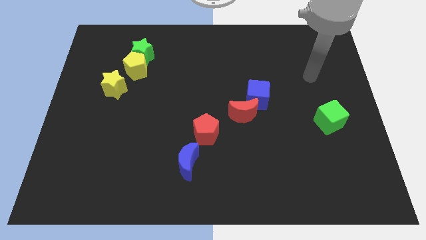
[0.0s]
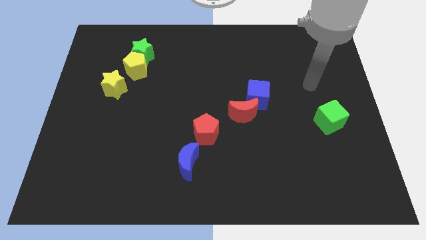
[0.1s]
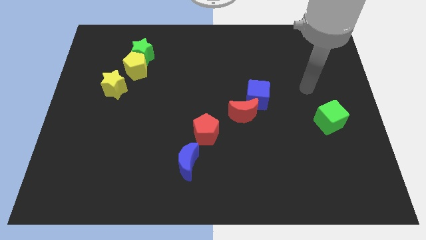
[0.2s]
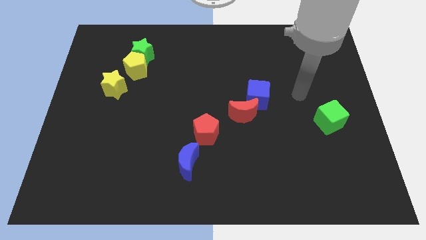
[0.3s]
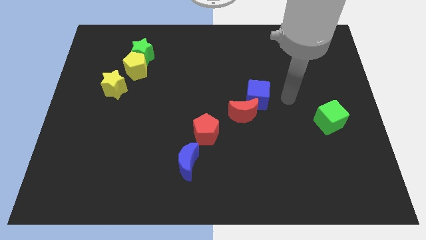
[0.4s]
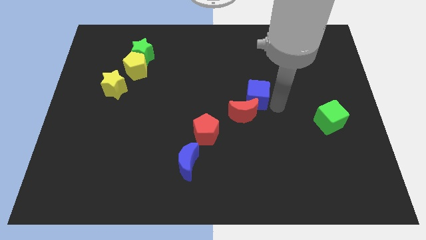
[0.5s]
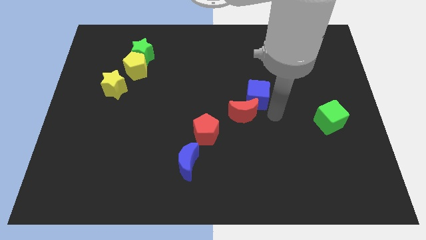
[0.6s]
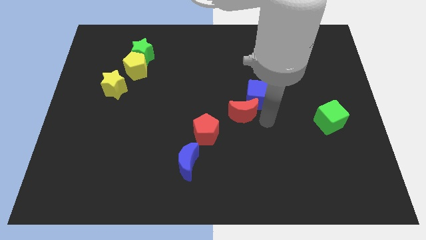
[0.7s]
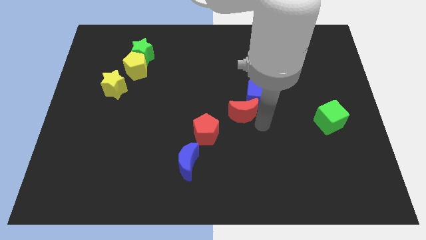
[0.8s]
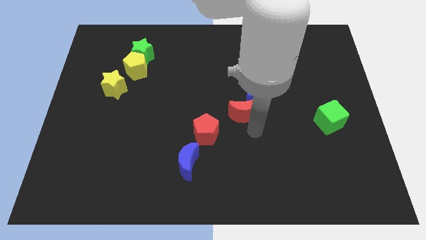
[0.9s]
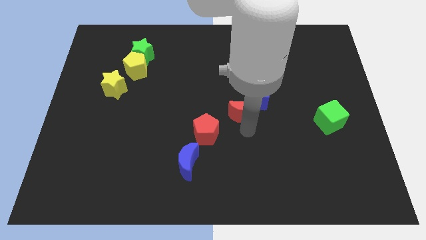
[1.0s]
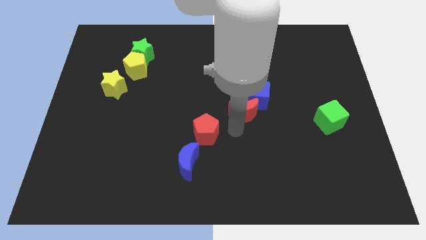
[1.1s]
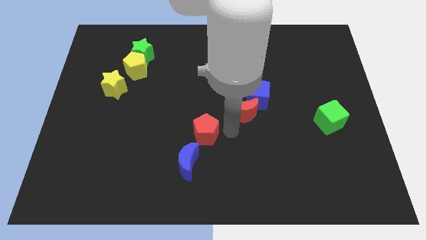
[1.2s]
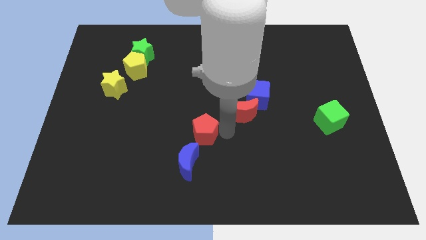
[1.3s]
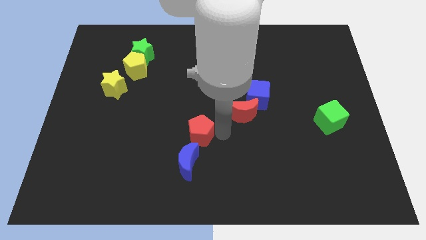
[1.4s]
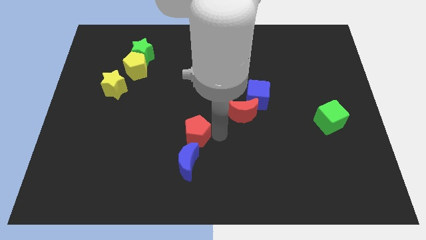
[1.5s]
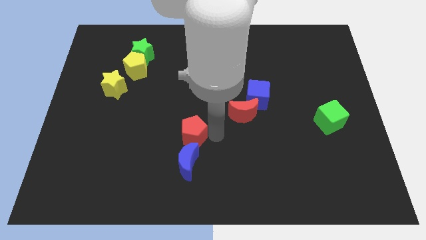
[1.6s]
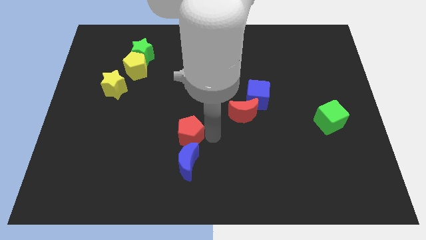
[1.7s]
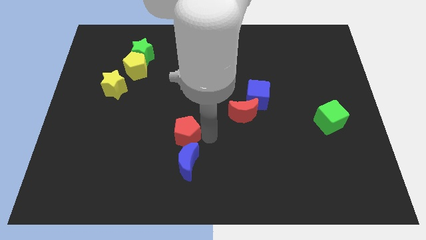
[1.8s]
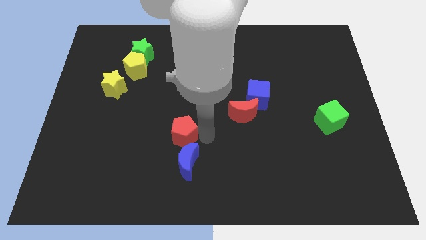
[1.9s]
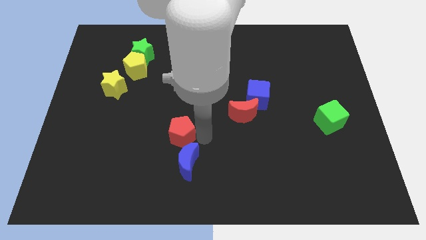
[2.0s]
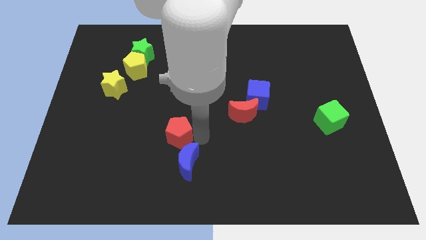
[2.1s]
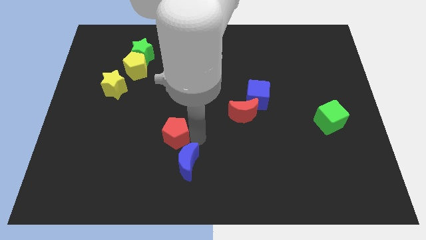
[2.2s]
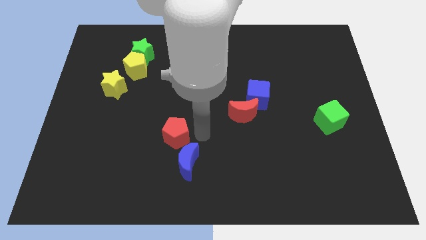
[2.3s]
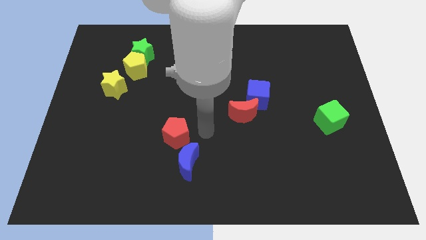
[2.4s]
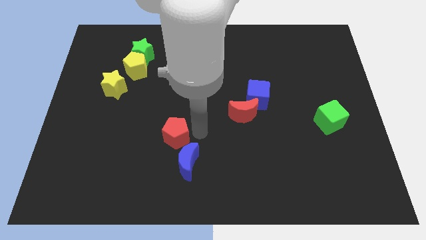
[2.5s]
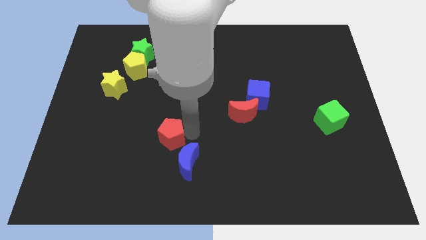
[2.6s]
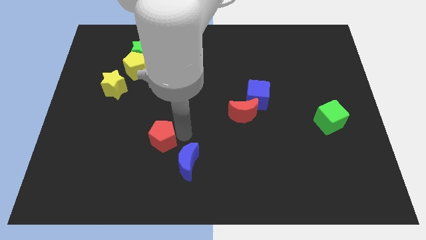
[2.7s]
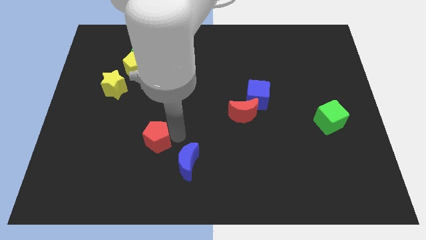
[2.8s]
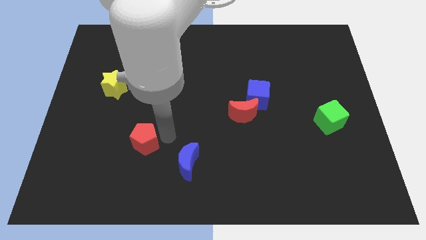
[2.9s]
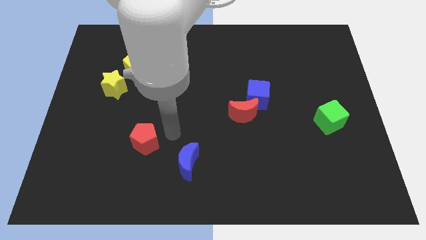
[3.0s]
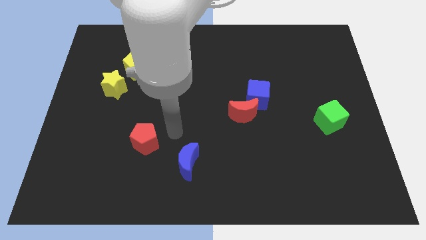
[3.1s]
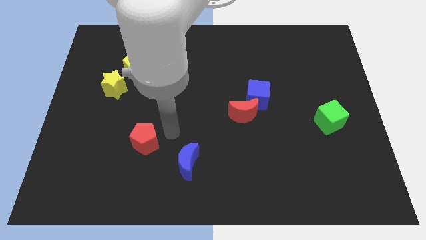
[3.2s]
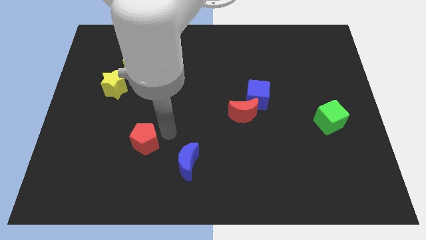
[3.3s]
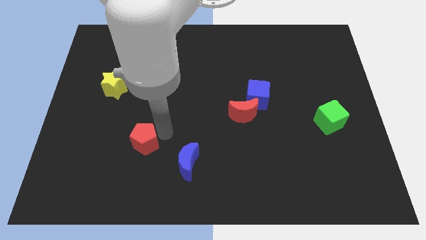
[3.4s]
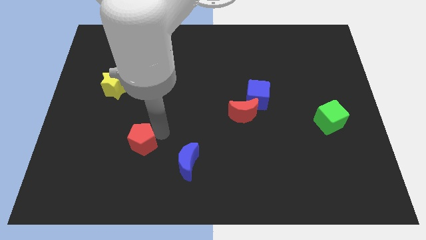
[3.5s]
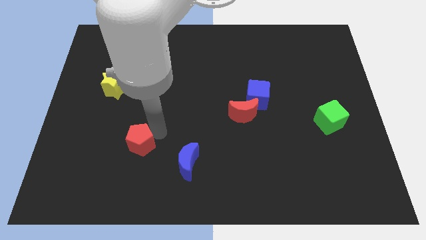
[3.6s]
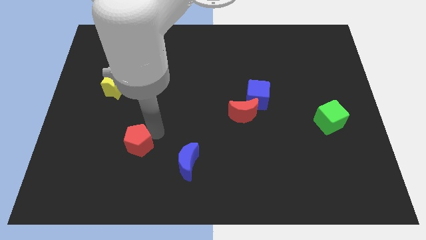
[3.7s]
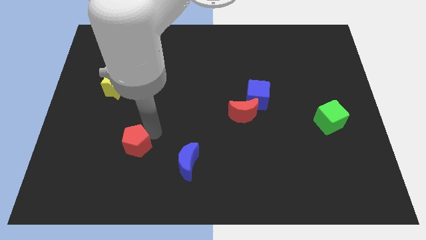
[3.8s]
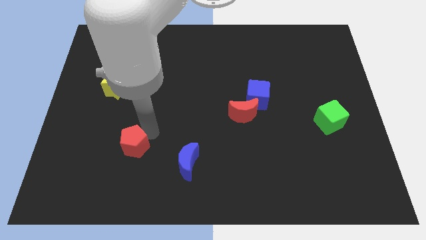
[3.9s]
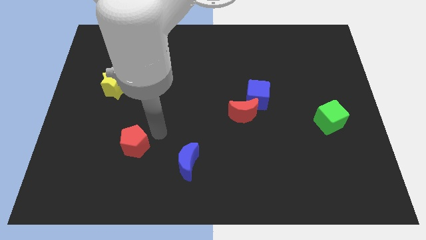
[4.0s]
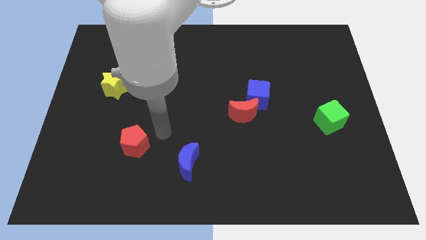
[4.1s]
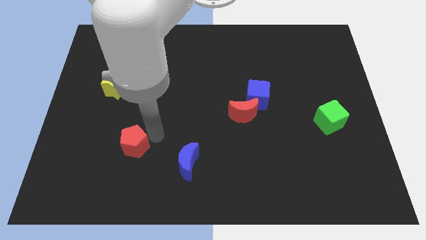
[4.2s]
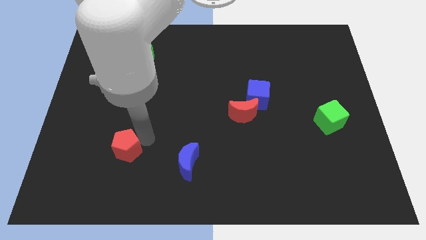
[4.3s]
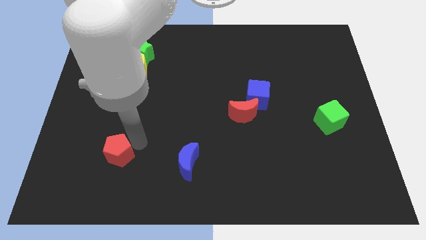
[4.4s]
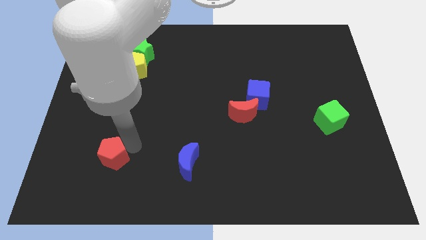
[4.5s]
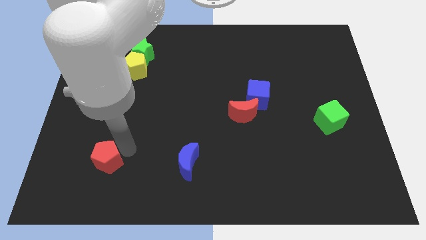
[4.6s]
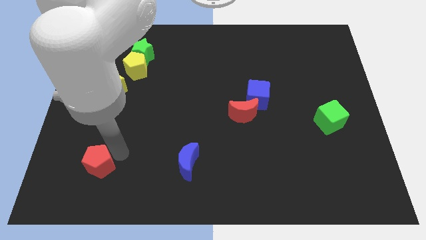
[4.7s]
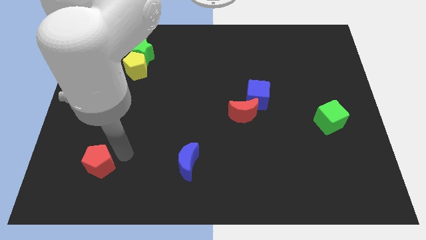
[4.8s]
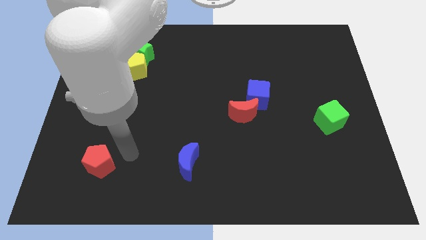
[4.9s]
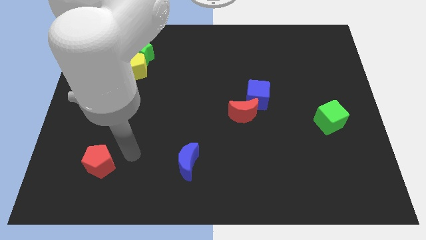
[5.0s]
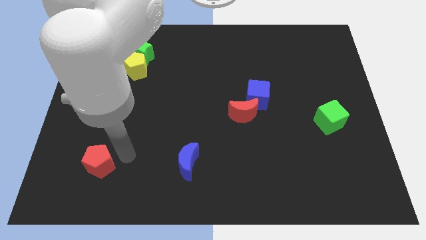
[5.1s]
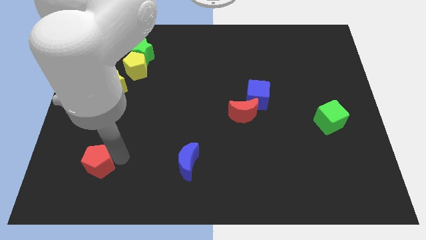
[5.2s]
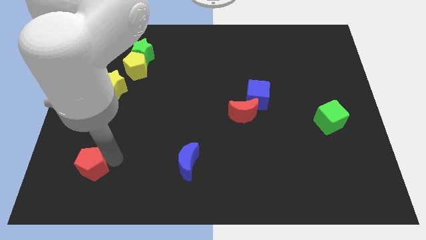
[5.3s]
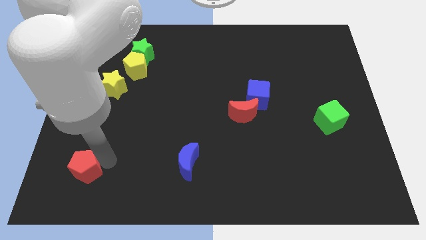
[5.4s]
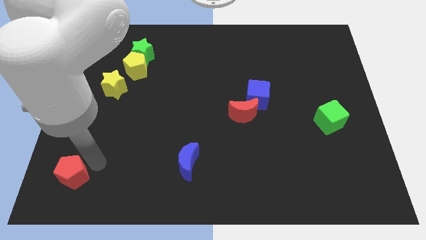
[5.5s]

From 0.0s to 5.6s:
push the red pentagon to the bottom left corner

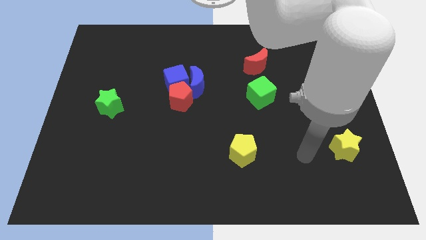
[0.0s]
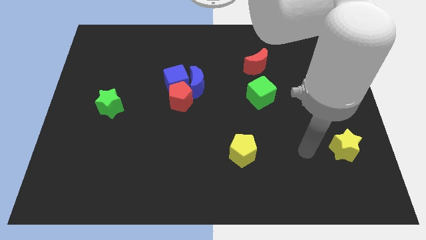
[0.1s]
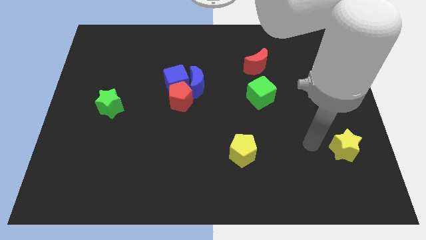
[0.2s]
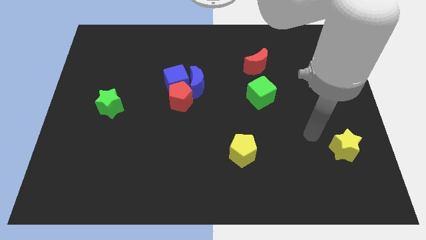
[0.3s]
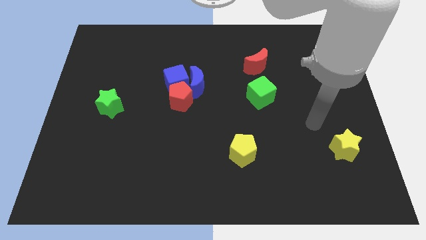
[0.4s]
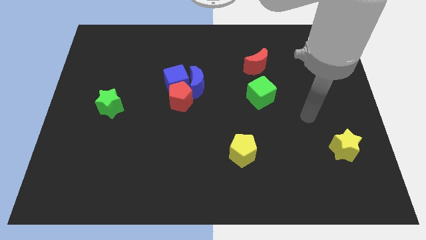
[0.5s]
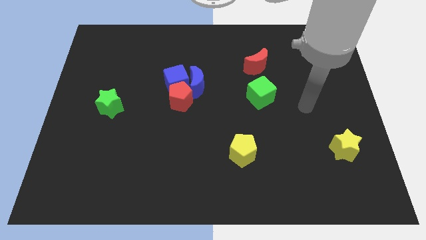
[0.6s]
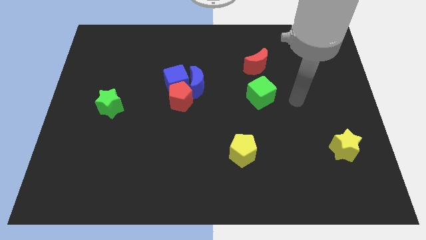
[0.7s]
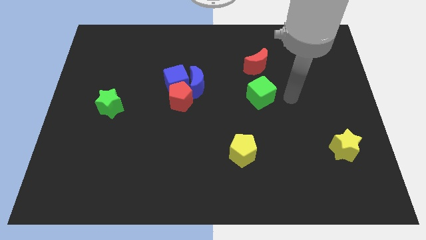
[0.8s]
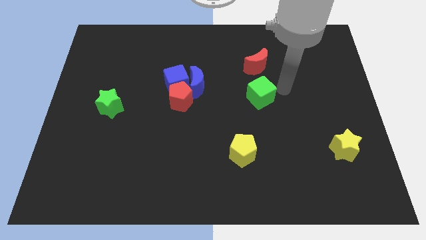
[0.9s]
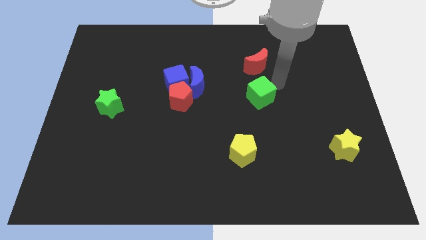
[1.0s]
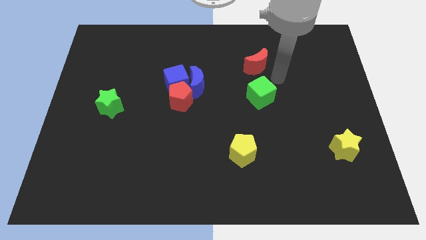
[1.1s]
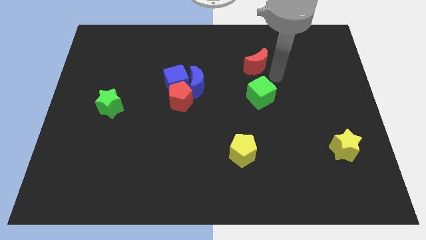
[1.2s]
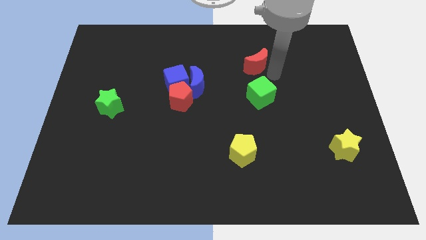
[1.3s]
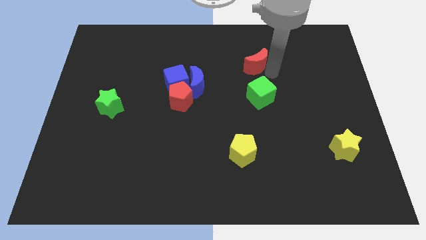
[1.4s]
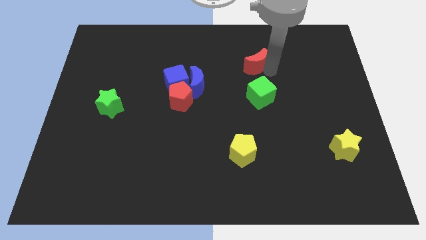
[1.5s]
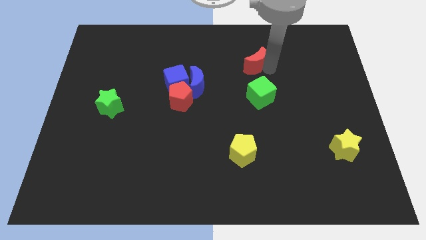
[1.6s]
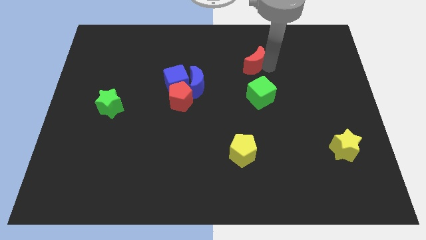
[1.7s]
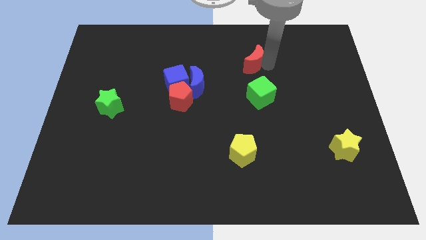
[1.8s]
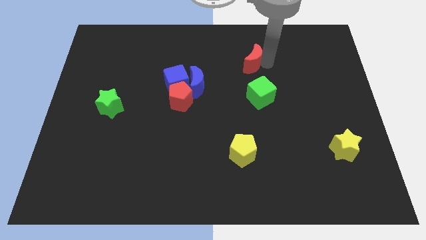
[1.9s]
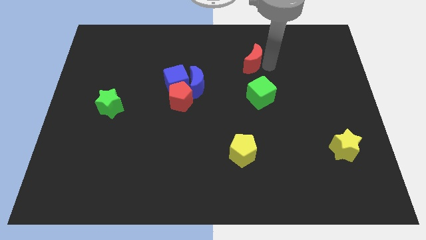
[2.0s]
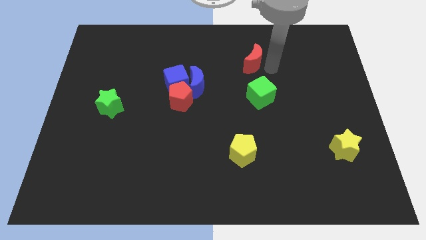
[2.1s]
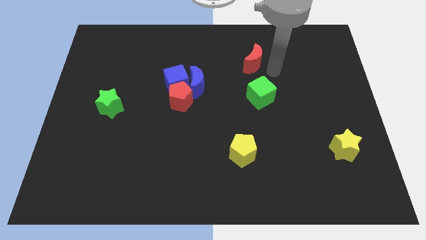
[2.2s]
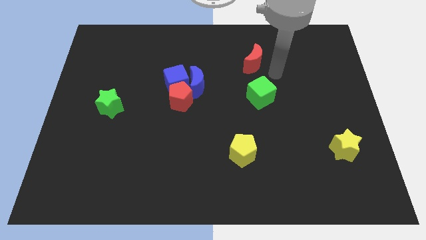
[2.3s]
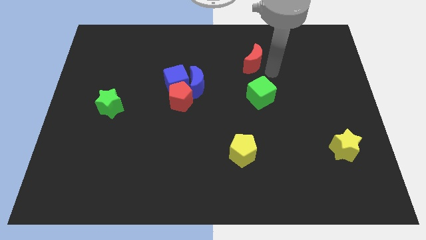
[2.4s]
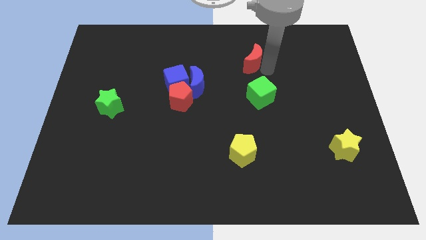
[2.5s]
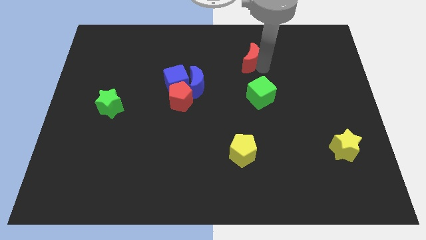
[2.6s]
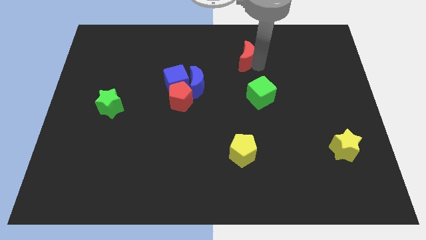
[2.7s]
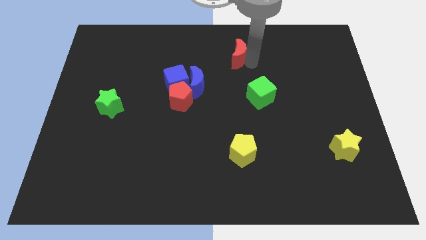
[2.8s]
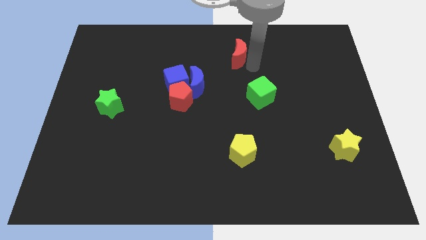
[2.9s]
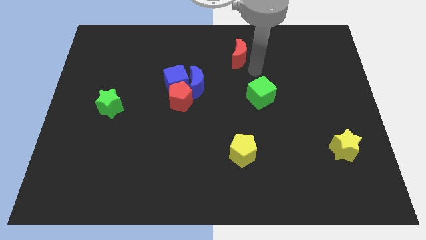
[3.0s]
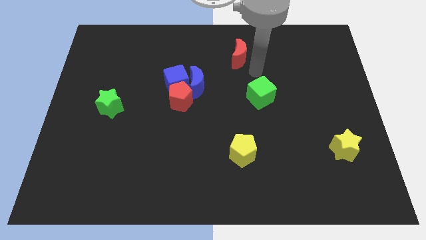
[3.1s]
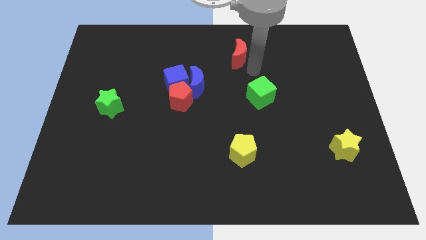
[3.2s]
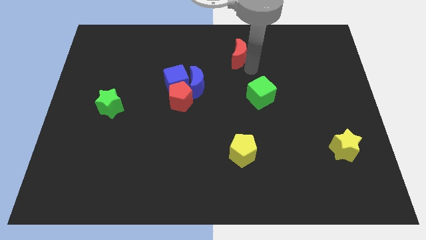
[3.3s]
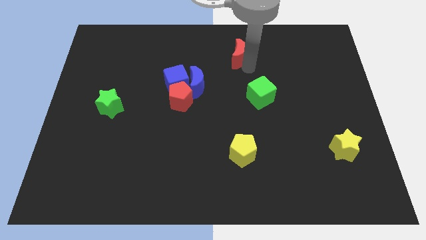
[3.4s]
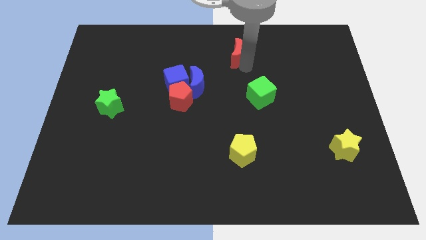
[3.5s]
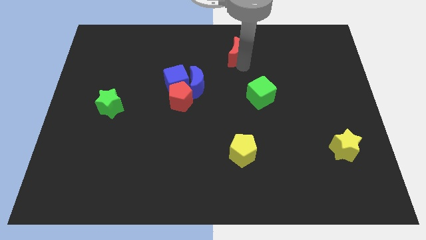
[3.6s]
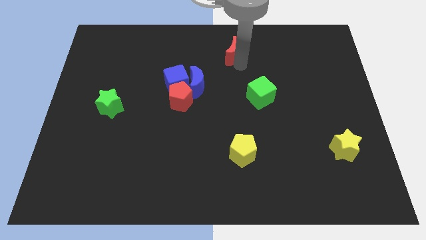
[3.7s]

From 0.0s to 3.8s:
push the red moon to the towards your base
